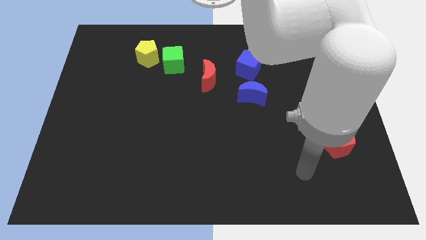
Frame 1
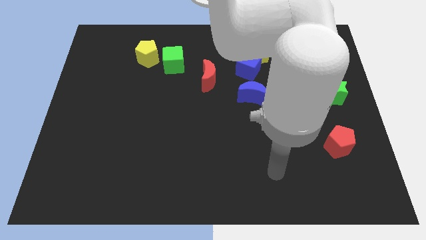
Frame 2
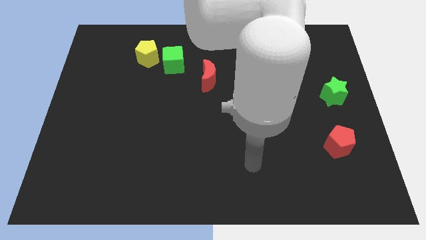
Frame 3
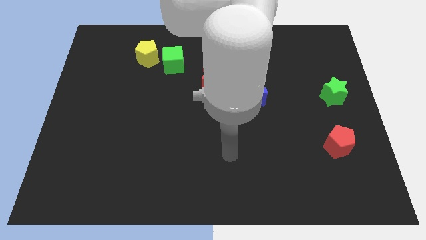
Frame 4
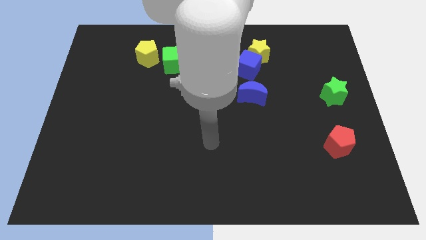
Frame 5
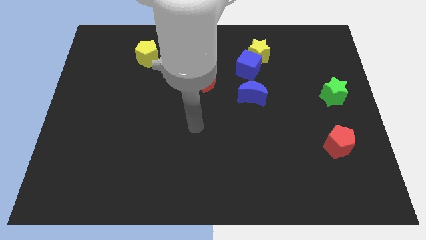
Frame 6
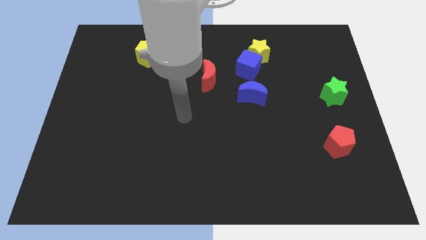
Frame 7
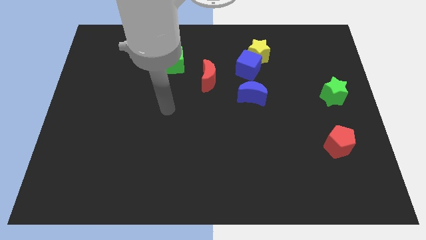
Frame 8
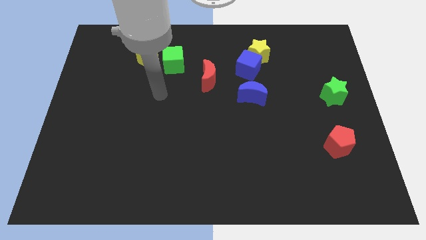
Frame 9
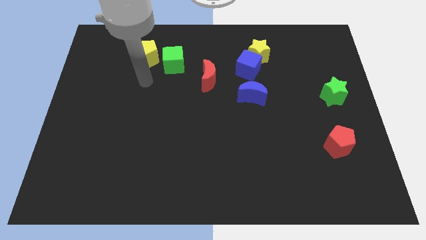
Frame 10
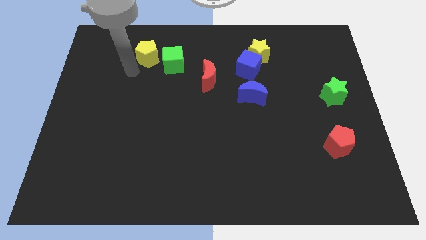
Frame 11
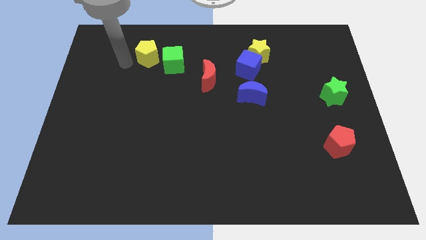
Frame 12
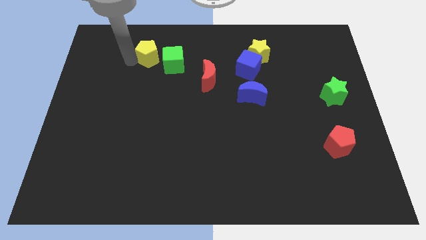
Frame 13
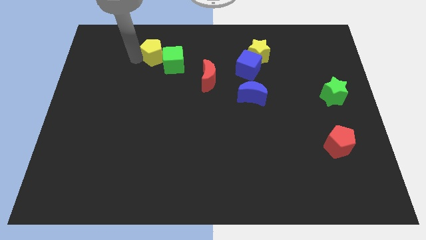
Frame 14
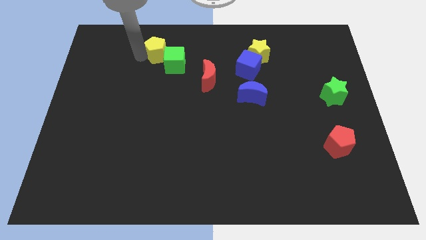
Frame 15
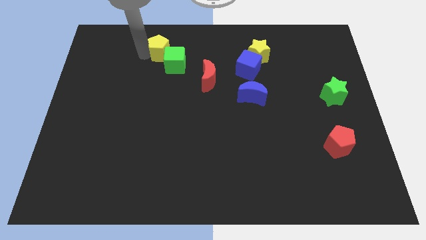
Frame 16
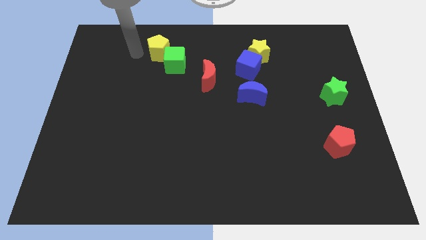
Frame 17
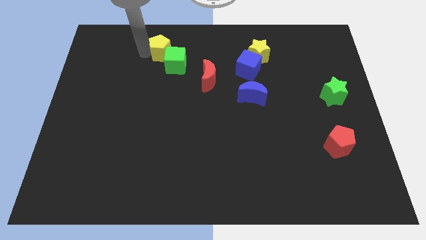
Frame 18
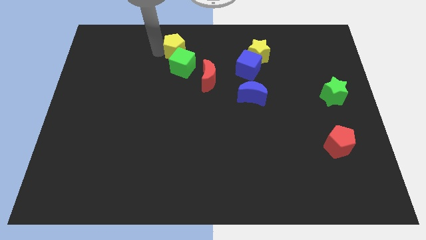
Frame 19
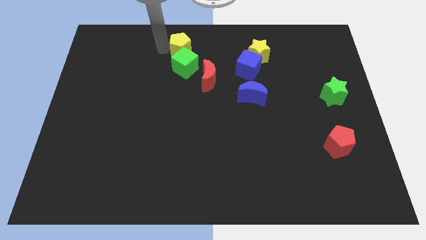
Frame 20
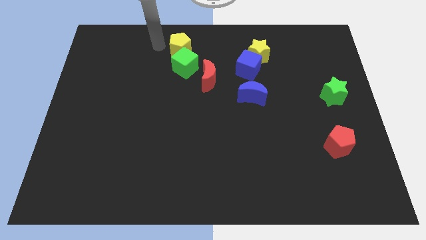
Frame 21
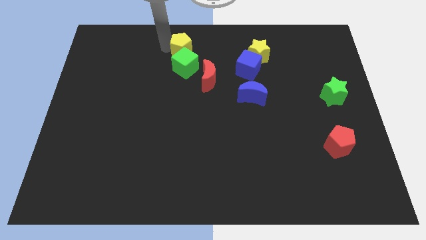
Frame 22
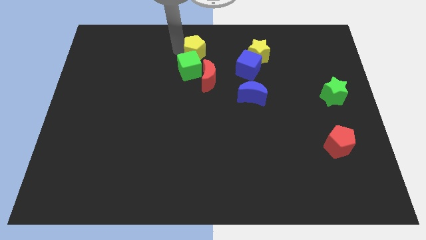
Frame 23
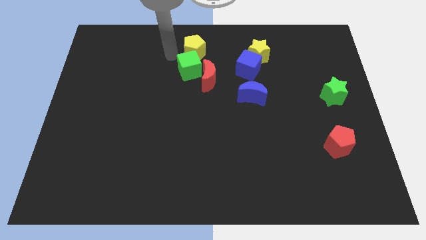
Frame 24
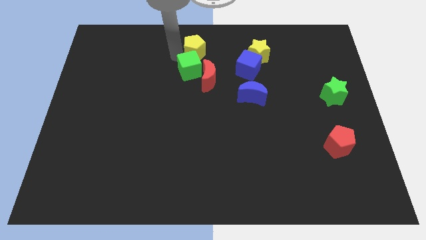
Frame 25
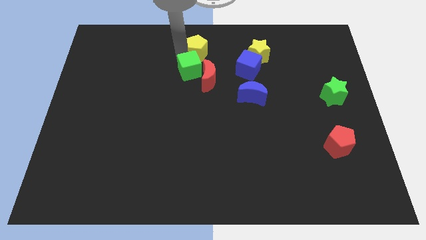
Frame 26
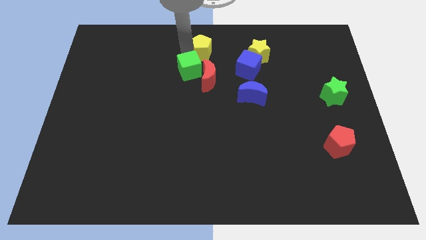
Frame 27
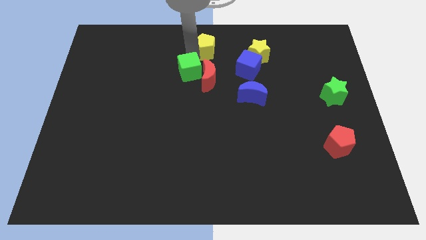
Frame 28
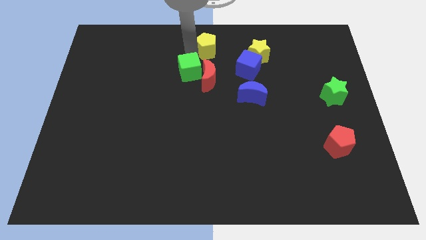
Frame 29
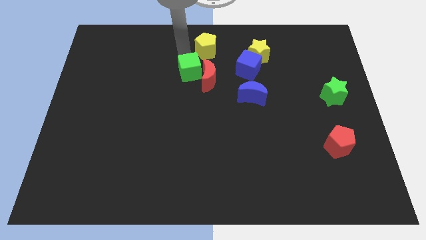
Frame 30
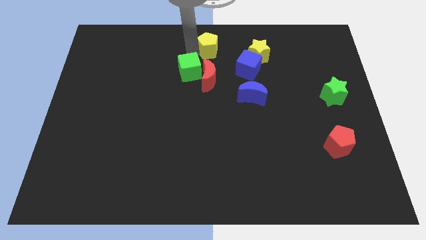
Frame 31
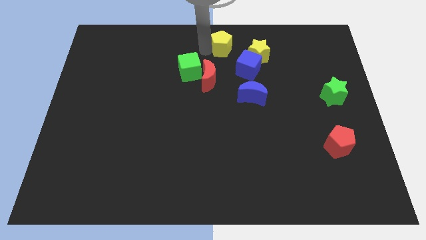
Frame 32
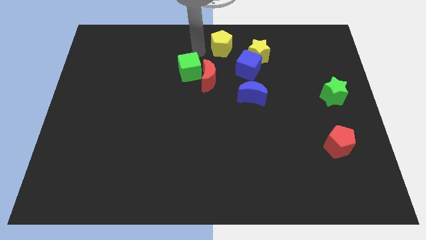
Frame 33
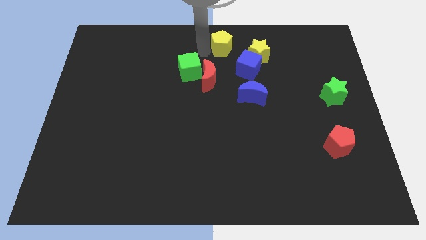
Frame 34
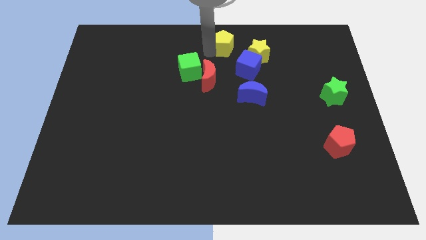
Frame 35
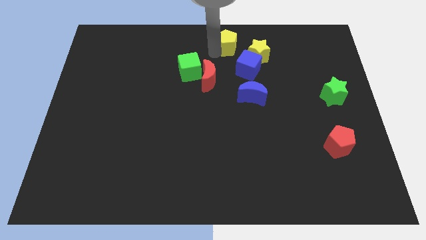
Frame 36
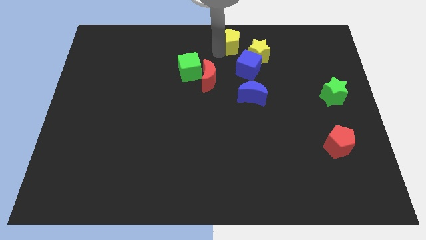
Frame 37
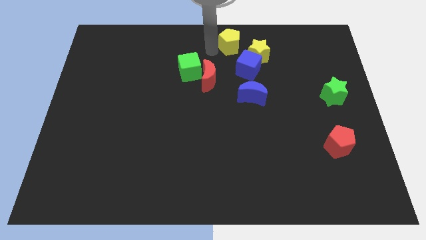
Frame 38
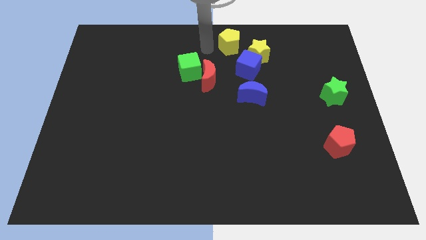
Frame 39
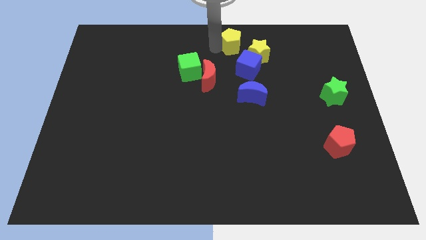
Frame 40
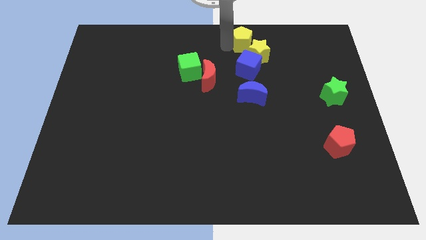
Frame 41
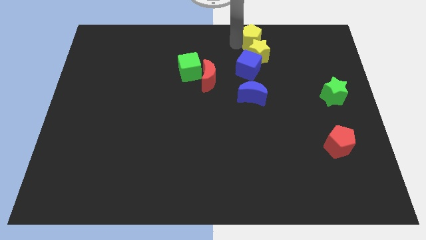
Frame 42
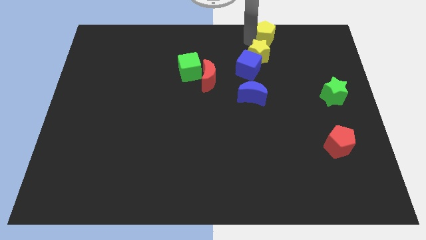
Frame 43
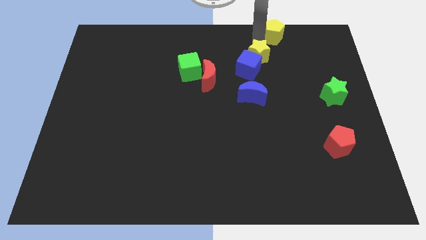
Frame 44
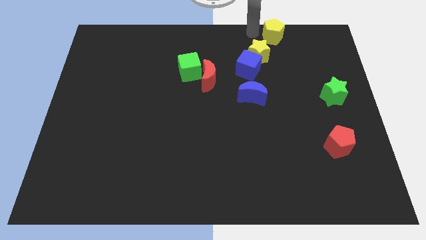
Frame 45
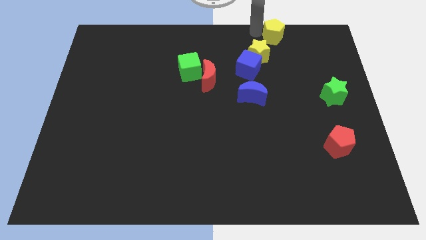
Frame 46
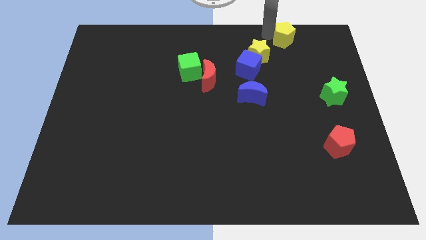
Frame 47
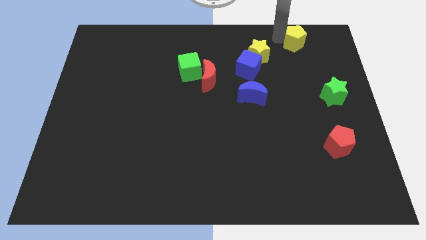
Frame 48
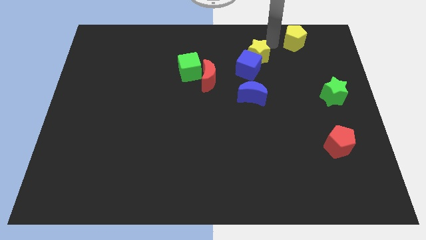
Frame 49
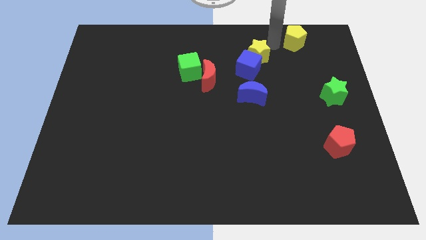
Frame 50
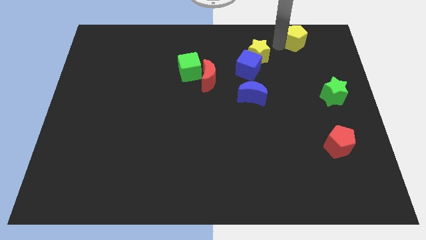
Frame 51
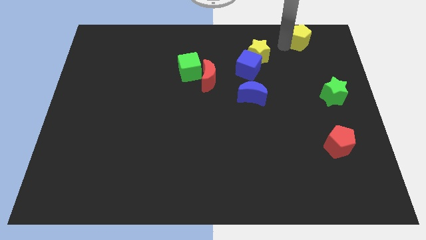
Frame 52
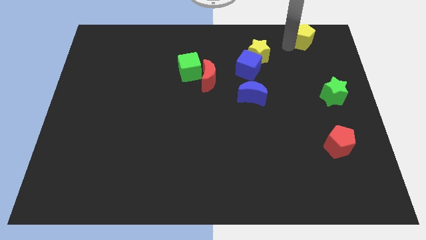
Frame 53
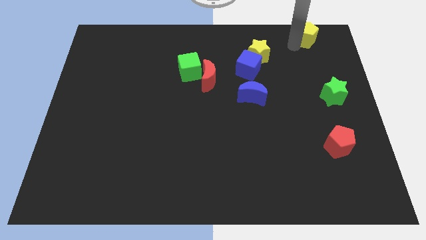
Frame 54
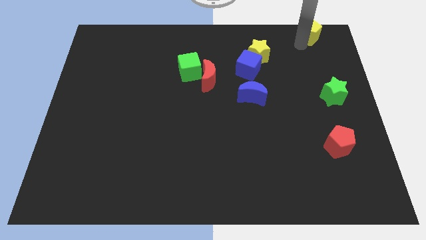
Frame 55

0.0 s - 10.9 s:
put the yellow pentagon to the upper right corner
